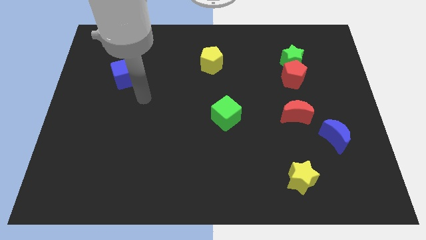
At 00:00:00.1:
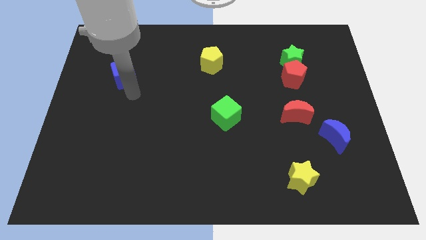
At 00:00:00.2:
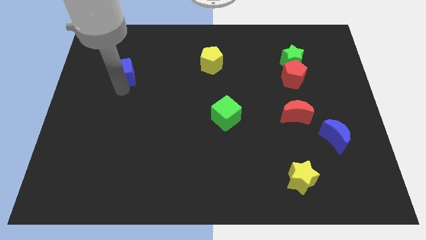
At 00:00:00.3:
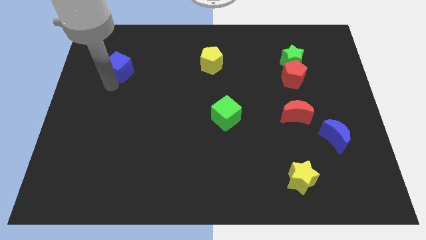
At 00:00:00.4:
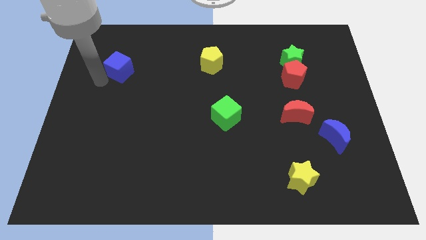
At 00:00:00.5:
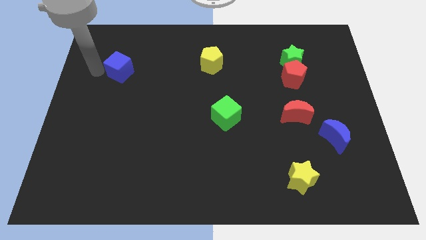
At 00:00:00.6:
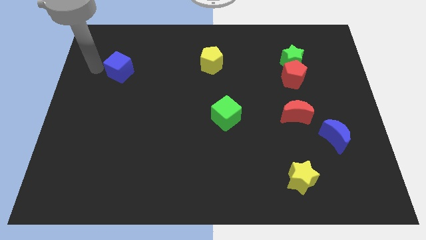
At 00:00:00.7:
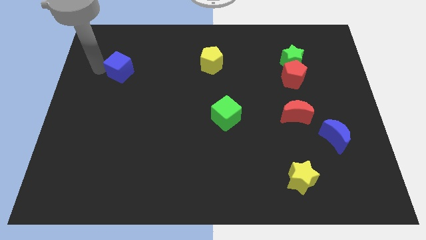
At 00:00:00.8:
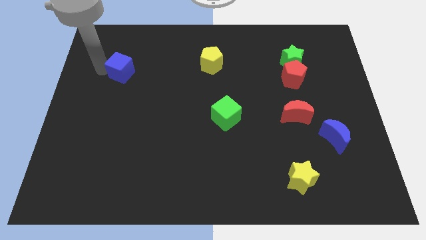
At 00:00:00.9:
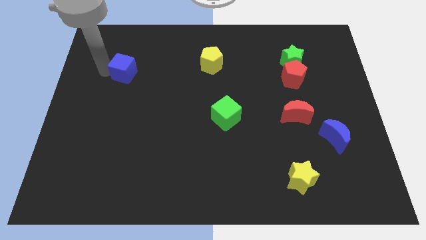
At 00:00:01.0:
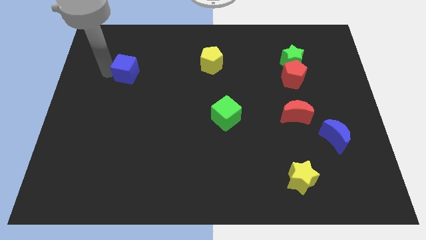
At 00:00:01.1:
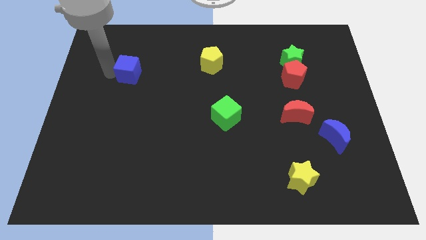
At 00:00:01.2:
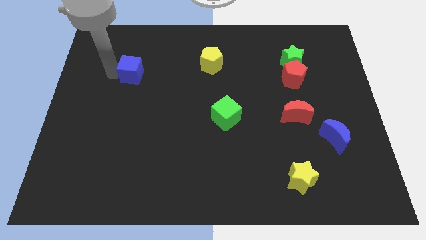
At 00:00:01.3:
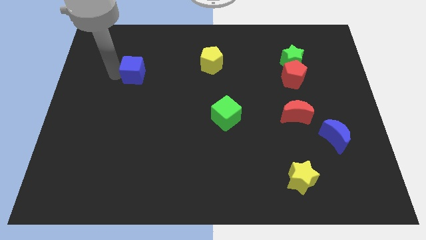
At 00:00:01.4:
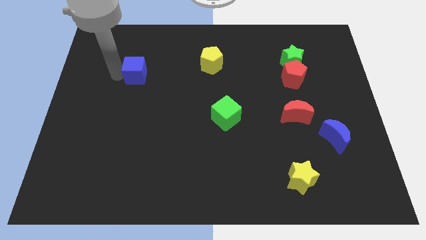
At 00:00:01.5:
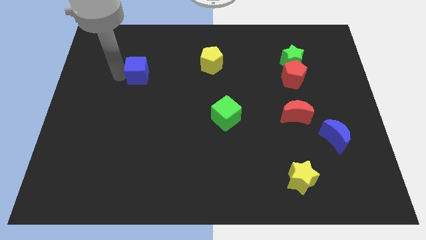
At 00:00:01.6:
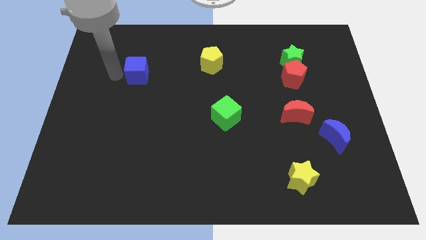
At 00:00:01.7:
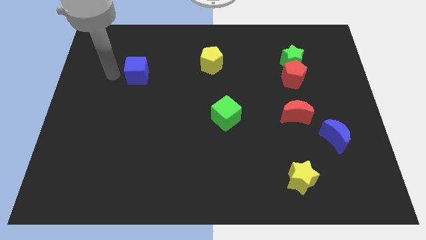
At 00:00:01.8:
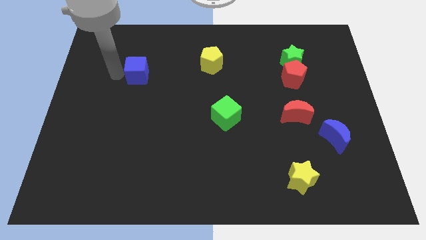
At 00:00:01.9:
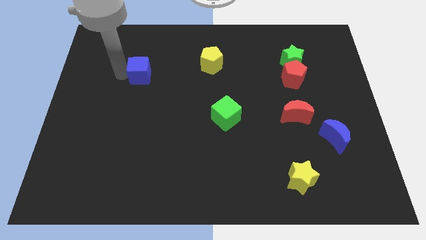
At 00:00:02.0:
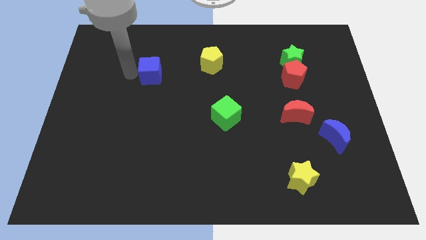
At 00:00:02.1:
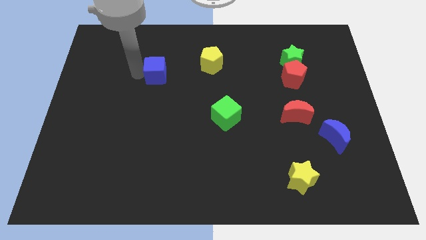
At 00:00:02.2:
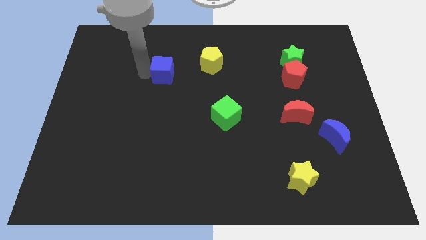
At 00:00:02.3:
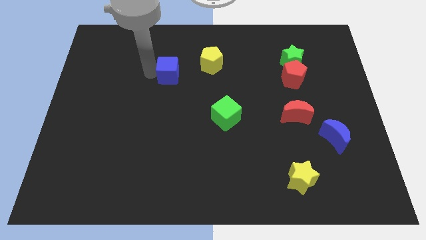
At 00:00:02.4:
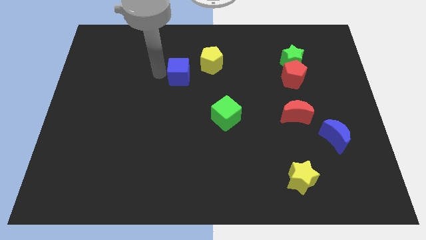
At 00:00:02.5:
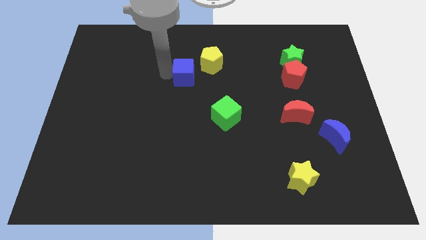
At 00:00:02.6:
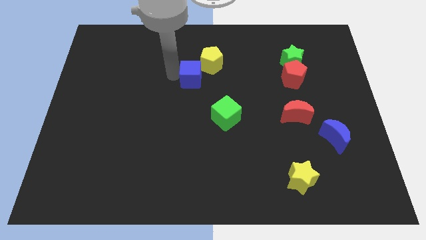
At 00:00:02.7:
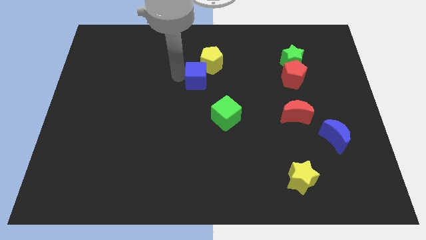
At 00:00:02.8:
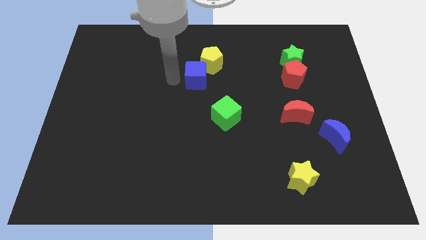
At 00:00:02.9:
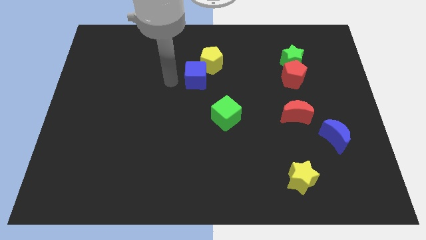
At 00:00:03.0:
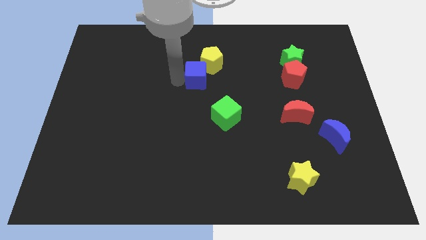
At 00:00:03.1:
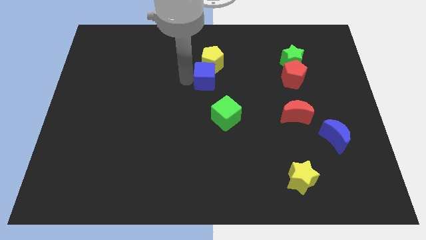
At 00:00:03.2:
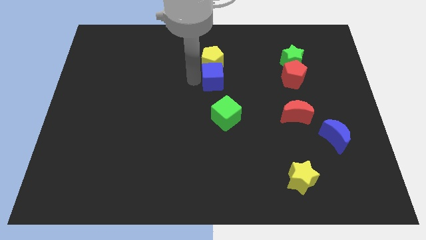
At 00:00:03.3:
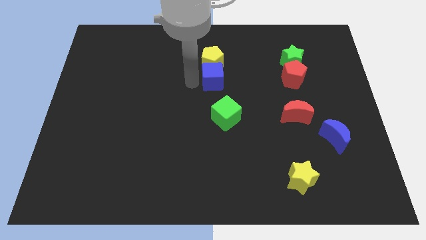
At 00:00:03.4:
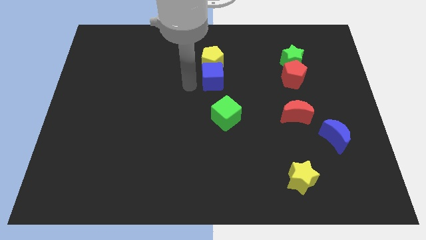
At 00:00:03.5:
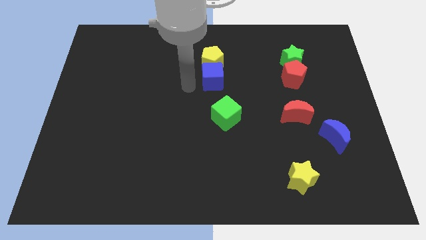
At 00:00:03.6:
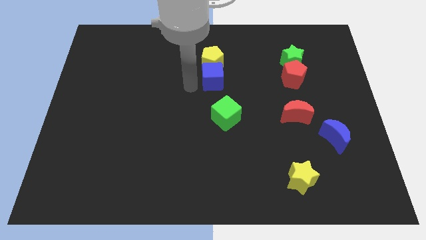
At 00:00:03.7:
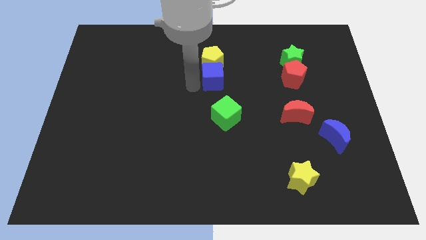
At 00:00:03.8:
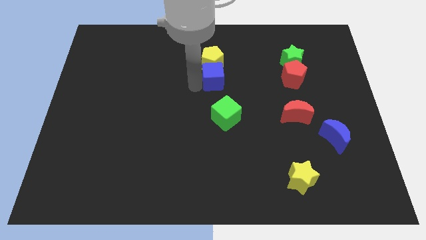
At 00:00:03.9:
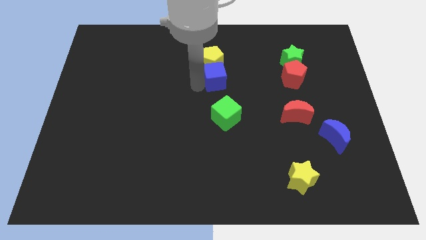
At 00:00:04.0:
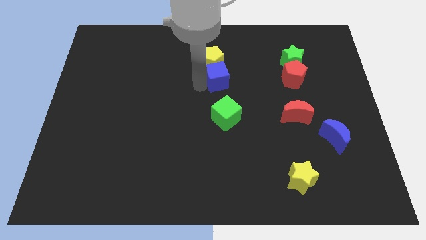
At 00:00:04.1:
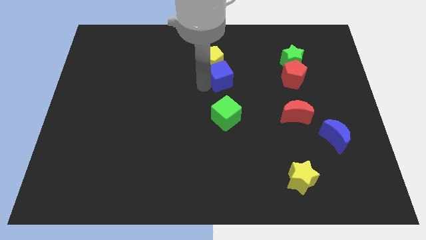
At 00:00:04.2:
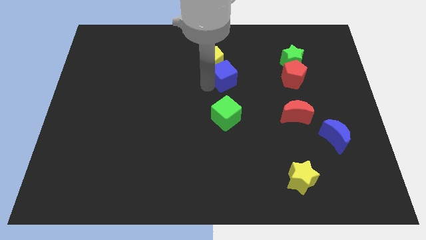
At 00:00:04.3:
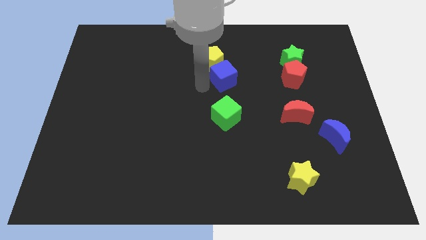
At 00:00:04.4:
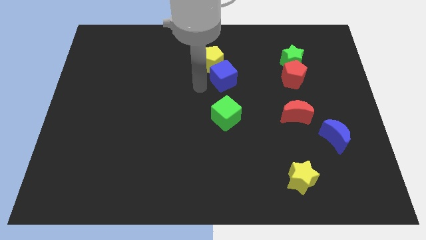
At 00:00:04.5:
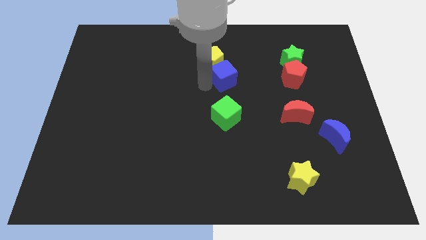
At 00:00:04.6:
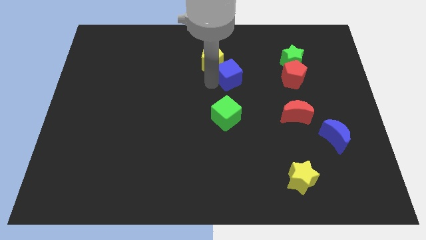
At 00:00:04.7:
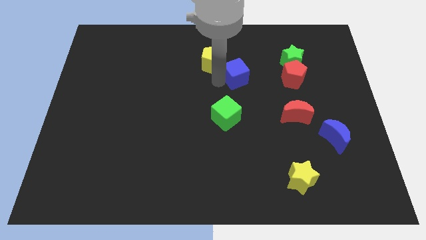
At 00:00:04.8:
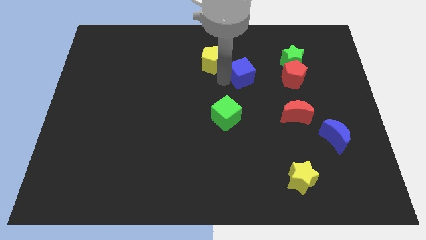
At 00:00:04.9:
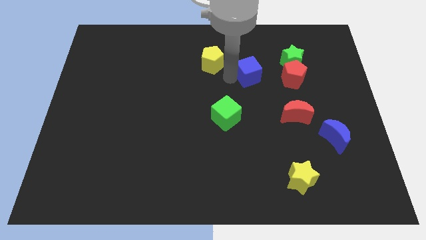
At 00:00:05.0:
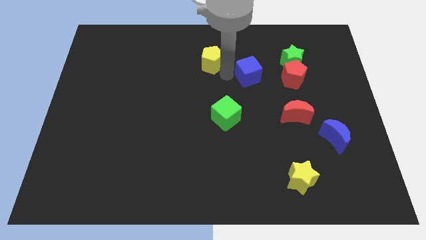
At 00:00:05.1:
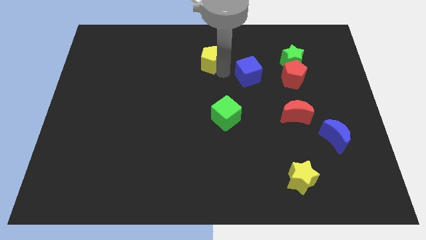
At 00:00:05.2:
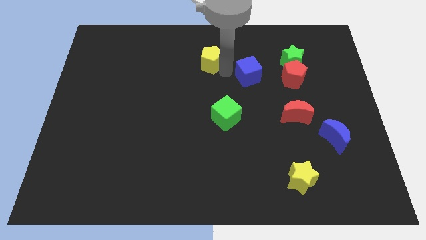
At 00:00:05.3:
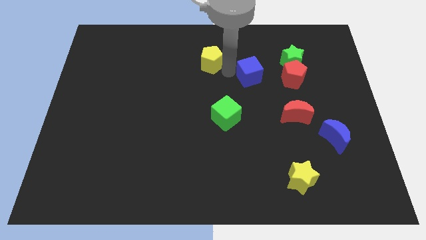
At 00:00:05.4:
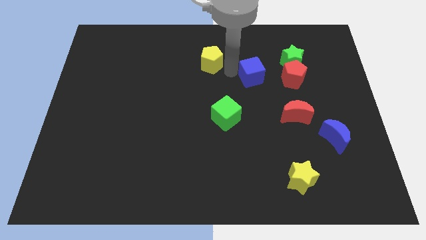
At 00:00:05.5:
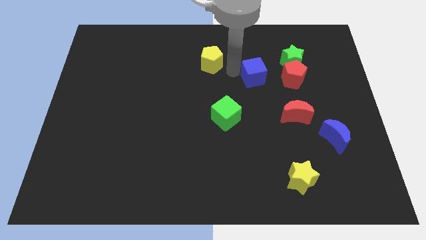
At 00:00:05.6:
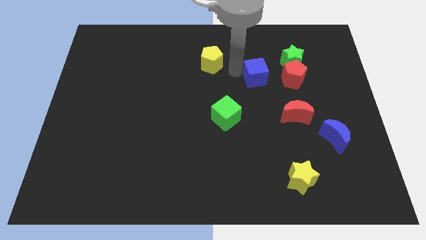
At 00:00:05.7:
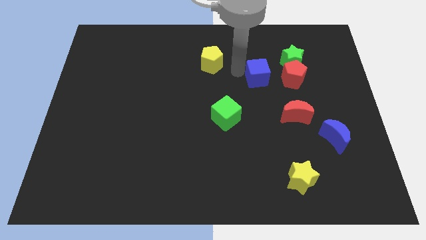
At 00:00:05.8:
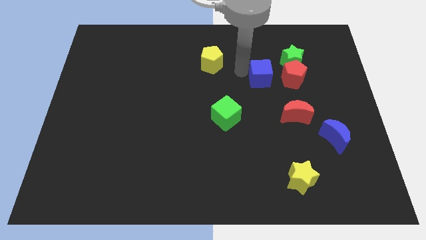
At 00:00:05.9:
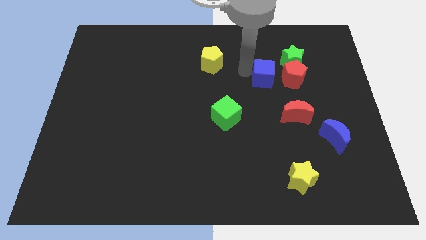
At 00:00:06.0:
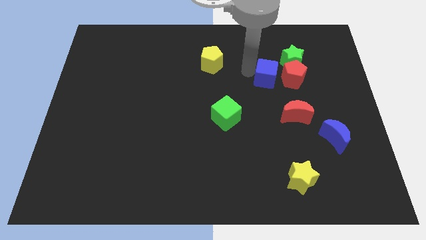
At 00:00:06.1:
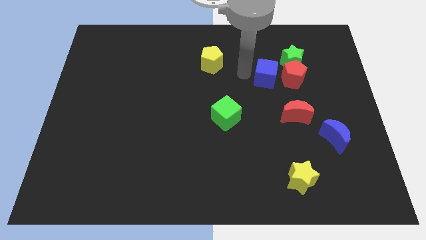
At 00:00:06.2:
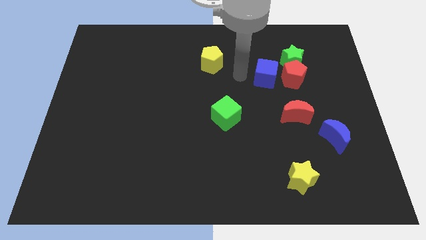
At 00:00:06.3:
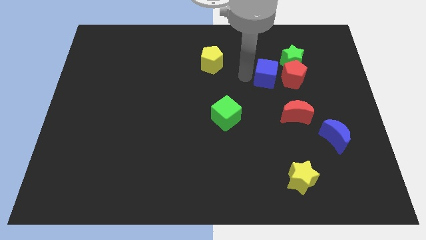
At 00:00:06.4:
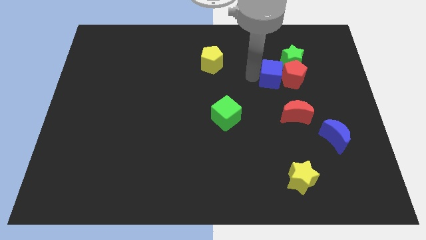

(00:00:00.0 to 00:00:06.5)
move the blue cube to the red pentagon
